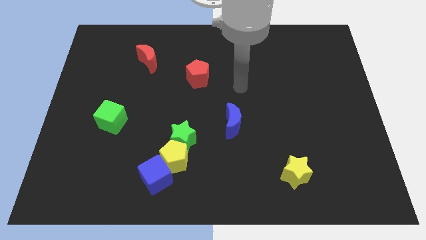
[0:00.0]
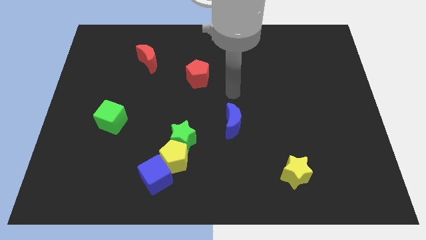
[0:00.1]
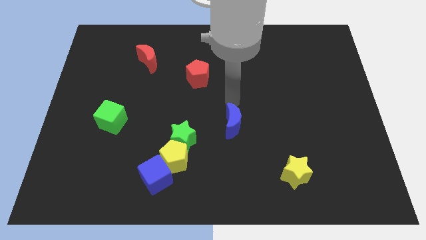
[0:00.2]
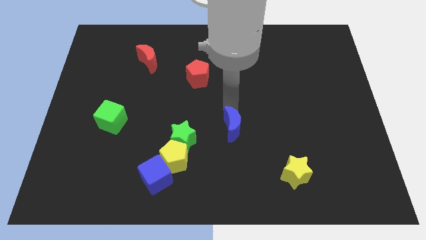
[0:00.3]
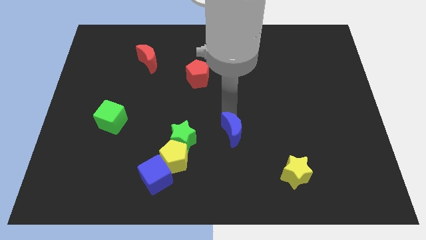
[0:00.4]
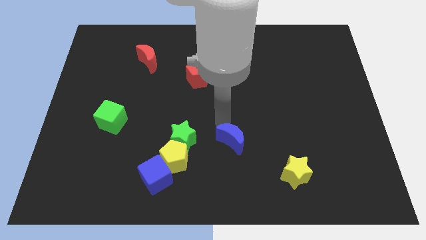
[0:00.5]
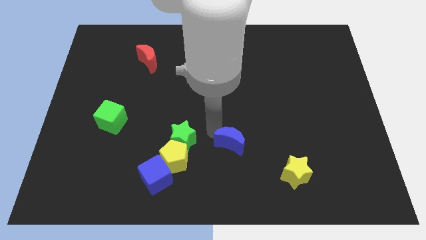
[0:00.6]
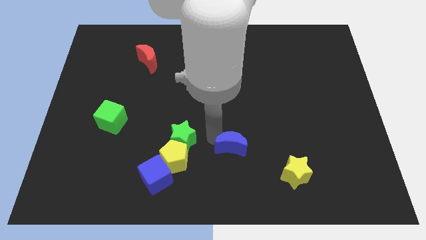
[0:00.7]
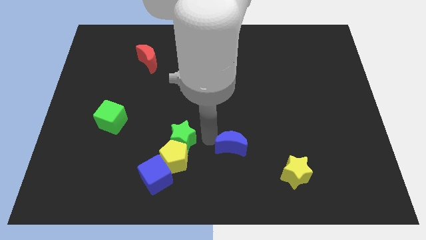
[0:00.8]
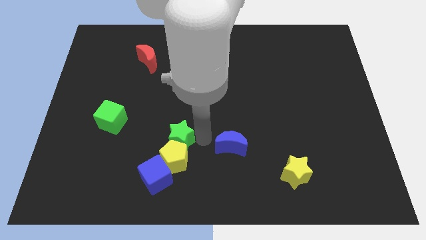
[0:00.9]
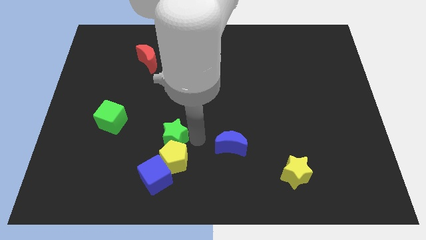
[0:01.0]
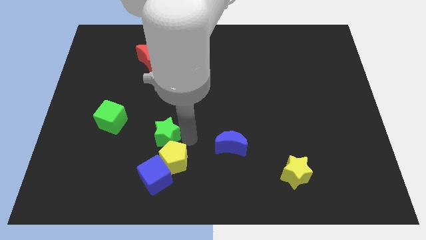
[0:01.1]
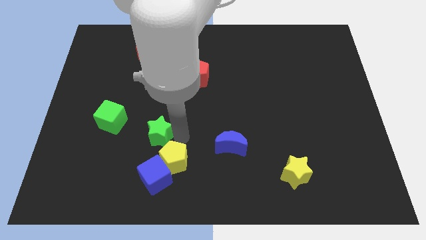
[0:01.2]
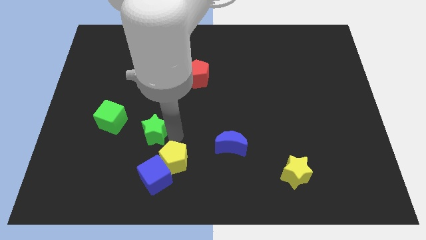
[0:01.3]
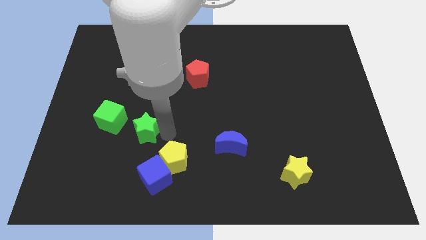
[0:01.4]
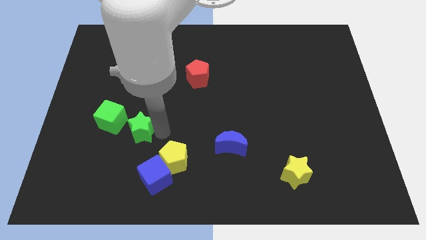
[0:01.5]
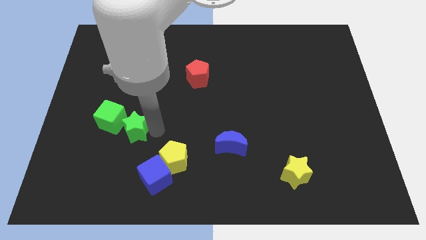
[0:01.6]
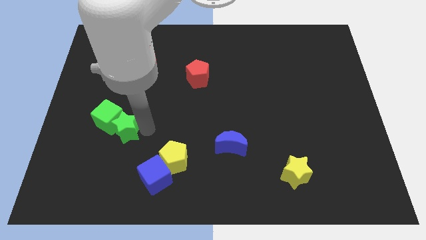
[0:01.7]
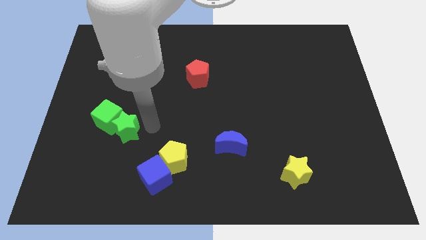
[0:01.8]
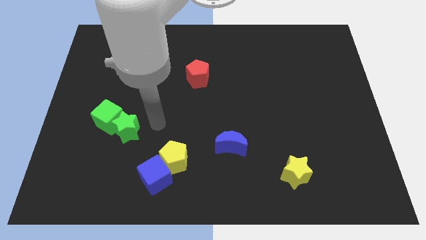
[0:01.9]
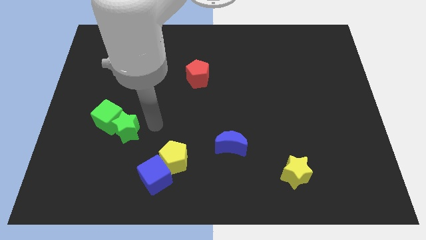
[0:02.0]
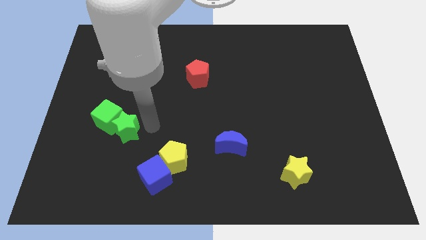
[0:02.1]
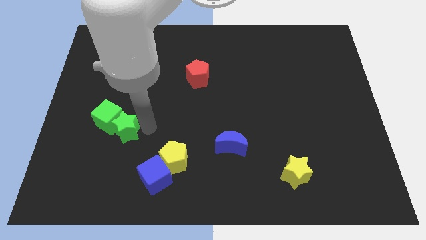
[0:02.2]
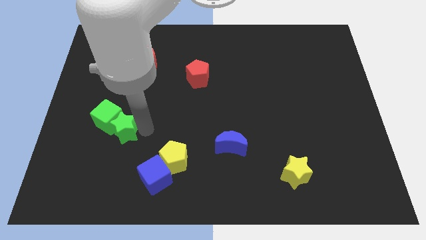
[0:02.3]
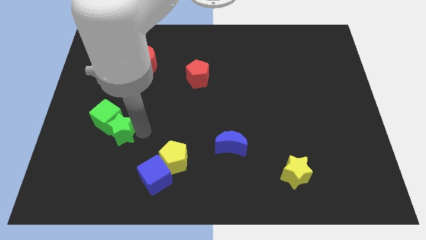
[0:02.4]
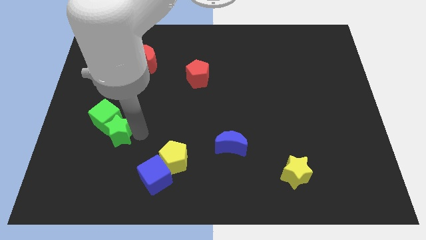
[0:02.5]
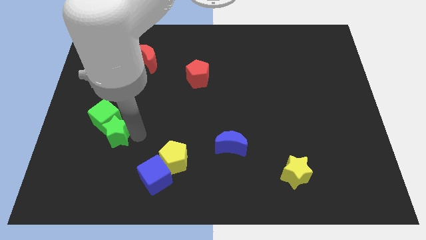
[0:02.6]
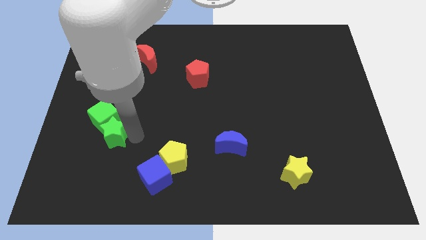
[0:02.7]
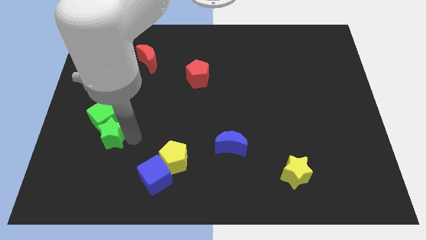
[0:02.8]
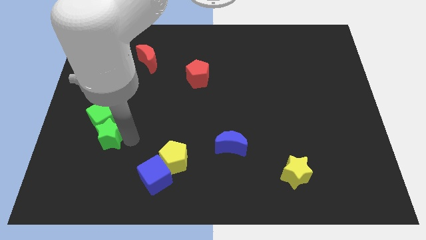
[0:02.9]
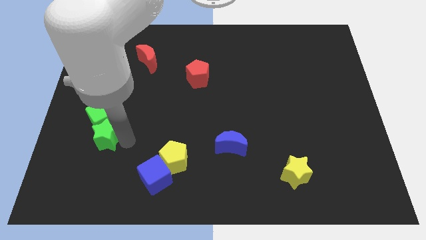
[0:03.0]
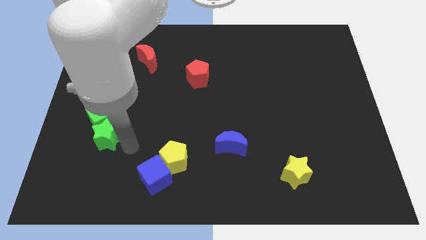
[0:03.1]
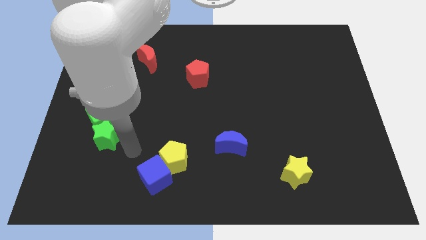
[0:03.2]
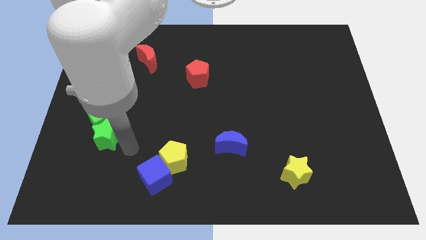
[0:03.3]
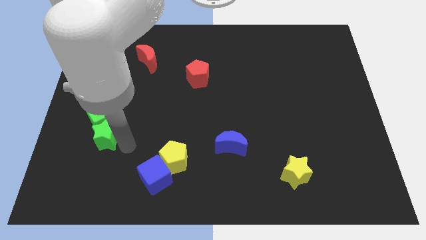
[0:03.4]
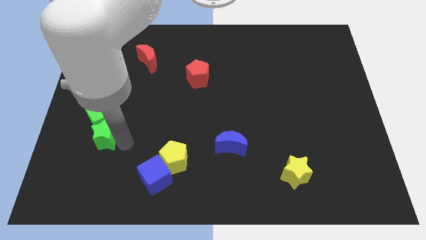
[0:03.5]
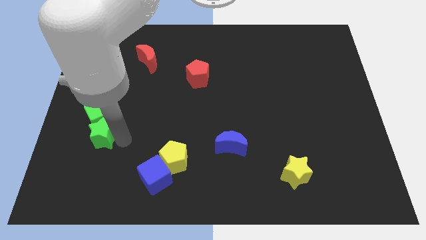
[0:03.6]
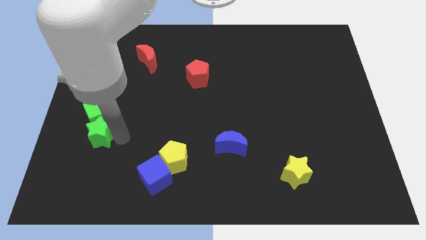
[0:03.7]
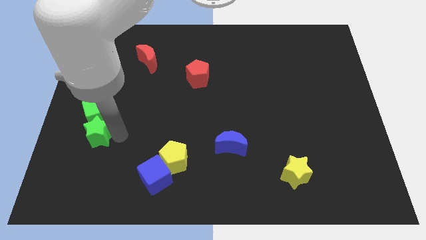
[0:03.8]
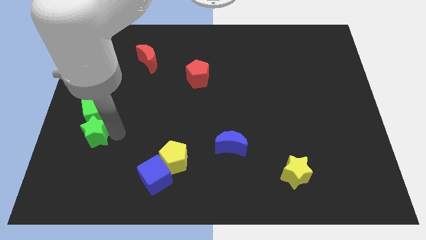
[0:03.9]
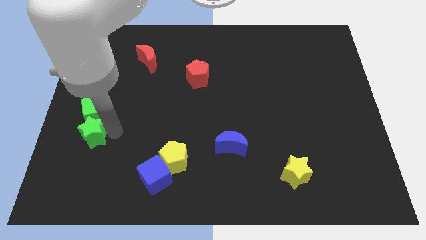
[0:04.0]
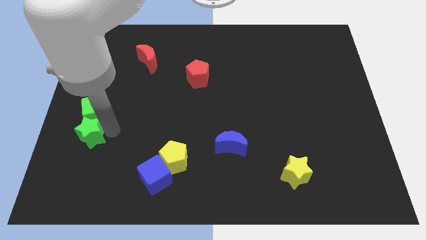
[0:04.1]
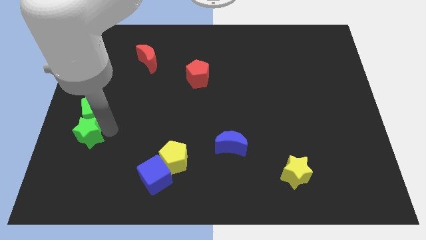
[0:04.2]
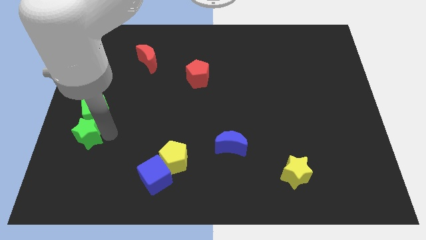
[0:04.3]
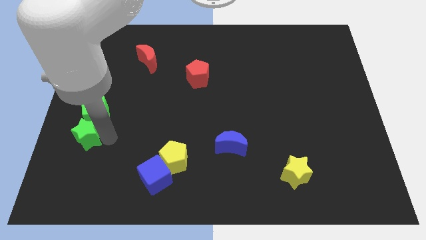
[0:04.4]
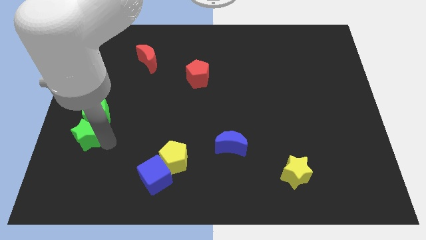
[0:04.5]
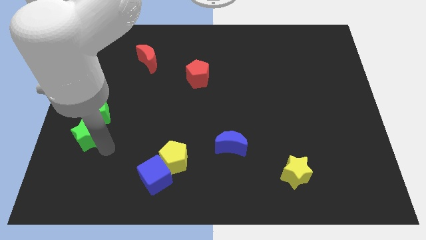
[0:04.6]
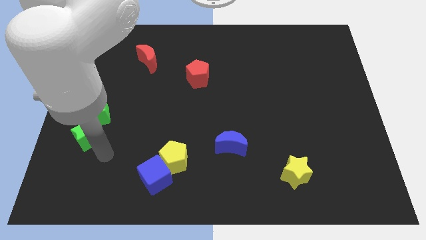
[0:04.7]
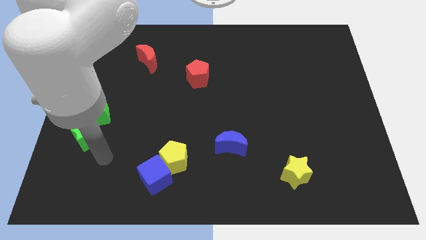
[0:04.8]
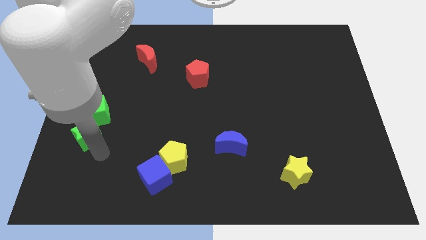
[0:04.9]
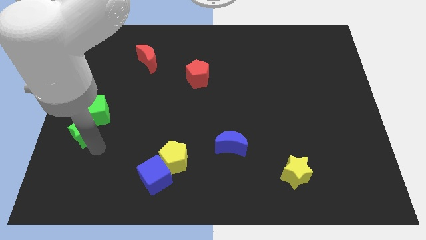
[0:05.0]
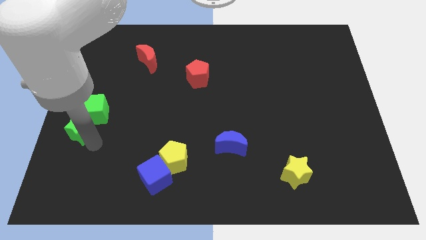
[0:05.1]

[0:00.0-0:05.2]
put the green star to the center left
